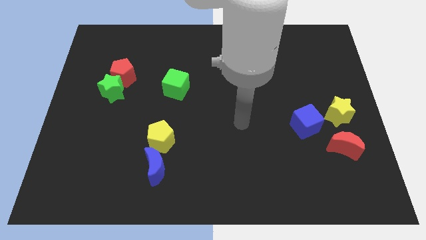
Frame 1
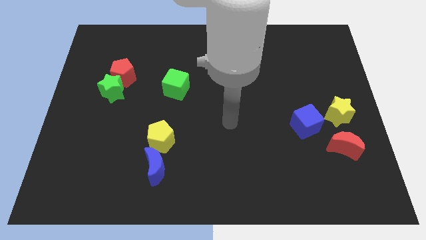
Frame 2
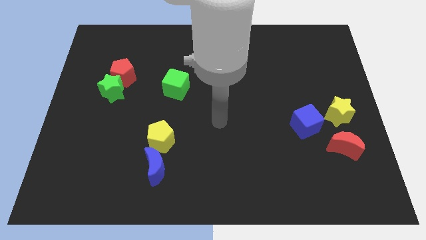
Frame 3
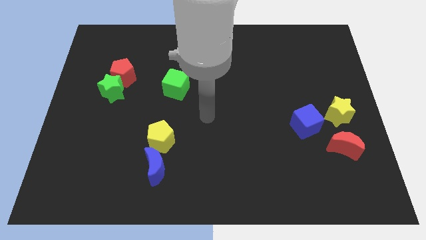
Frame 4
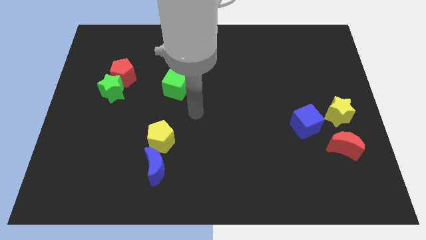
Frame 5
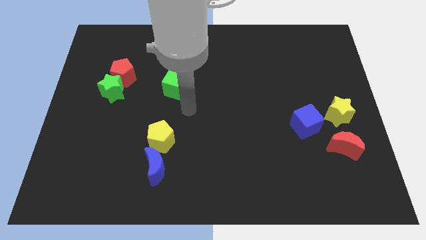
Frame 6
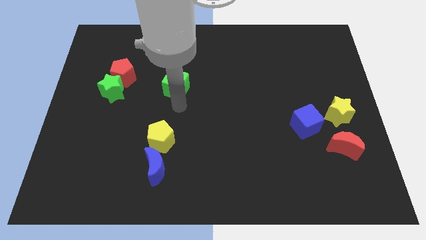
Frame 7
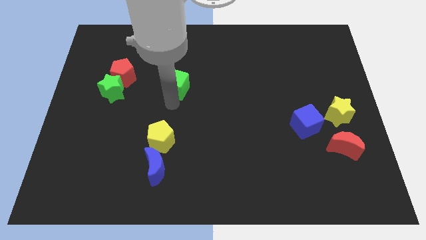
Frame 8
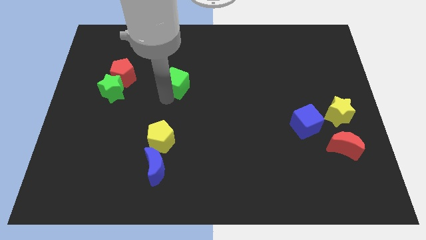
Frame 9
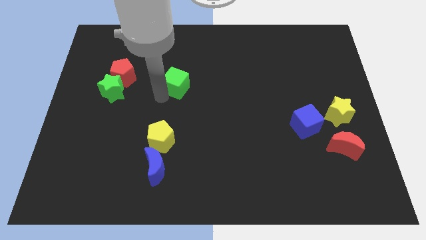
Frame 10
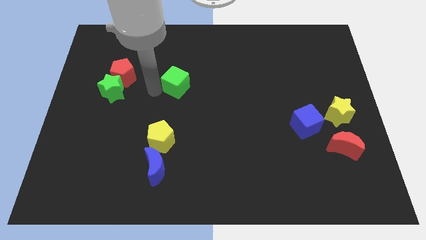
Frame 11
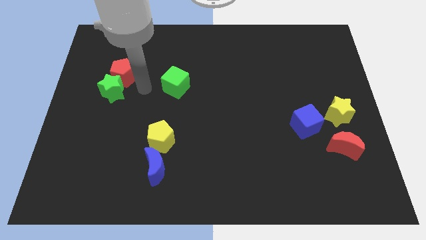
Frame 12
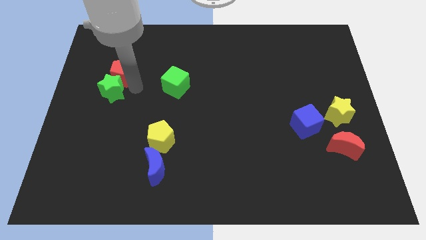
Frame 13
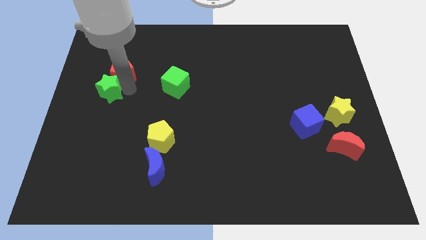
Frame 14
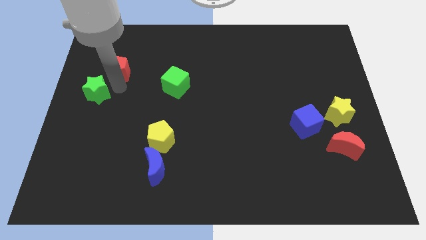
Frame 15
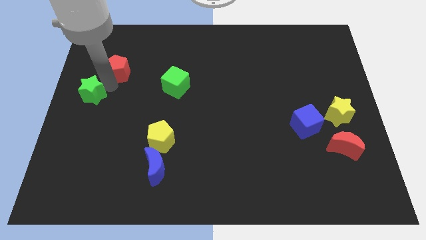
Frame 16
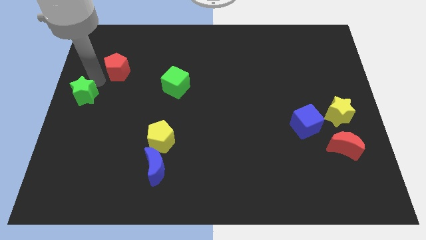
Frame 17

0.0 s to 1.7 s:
separate the red pentagon from the green star

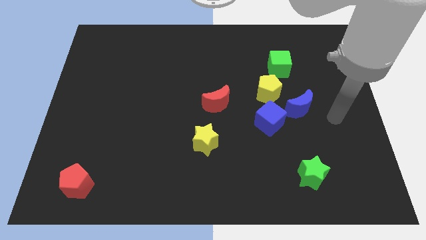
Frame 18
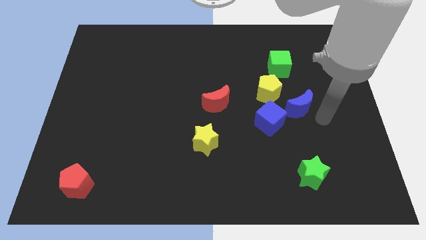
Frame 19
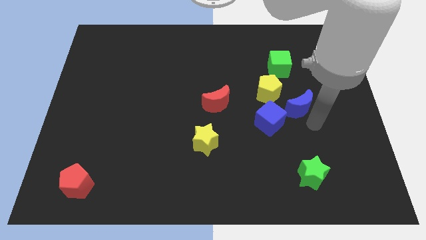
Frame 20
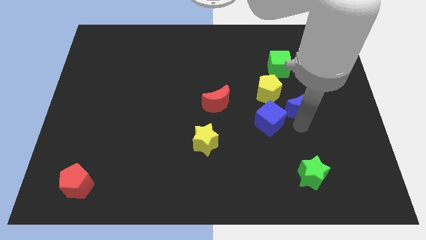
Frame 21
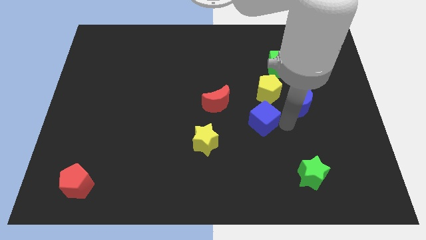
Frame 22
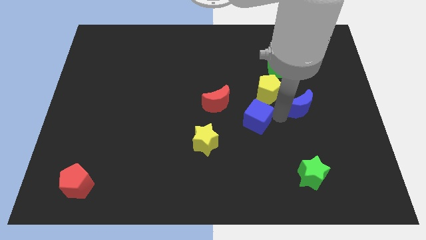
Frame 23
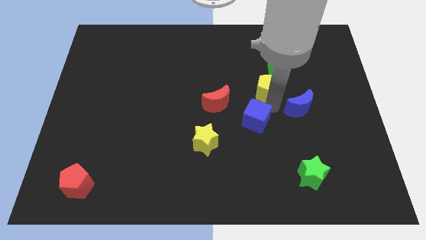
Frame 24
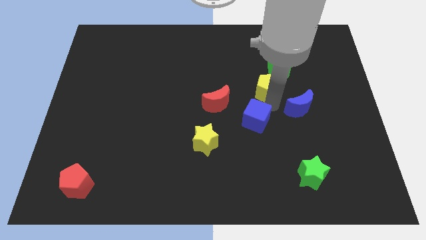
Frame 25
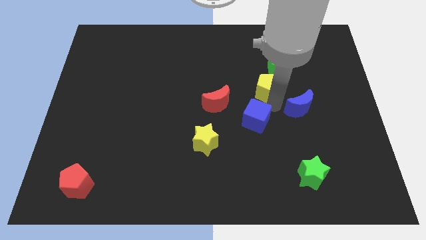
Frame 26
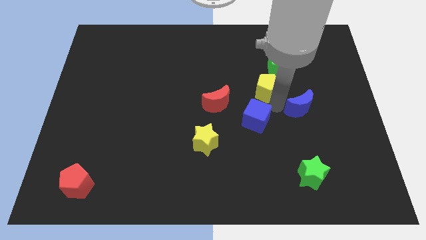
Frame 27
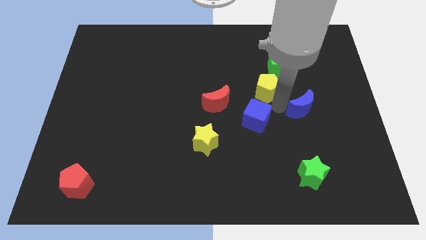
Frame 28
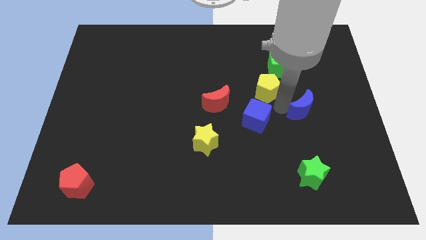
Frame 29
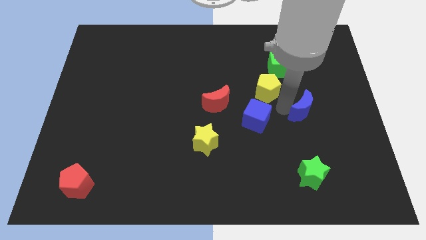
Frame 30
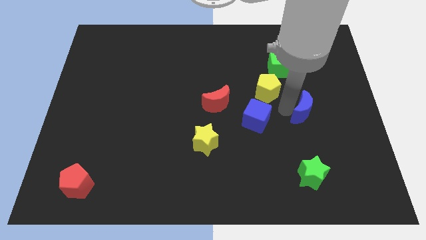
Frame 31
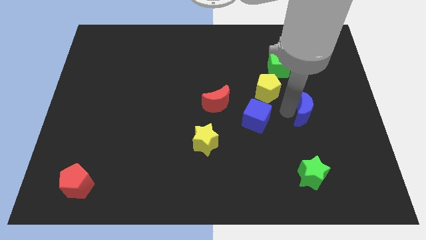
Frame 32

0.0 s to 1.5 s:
move the blue moon away from the blue cube and yellow pentagon

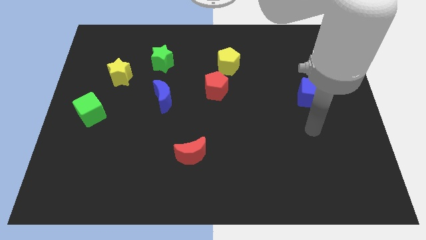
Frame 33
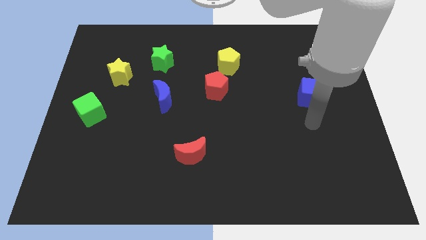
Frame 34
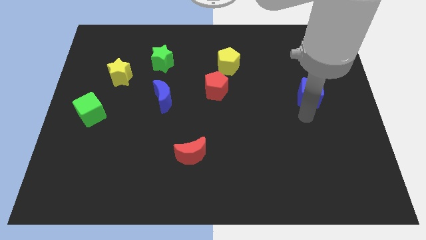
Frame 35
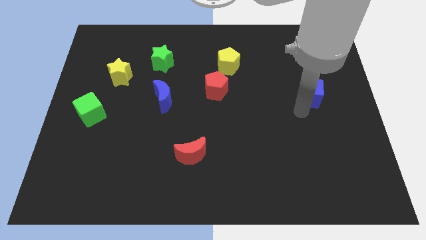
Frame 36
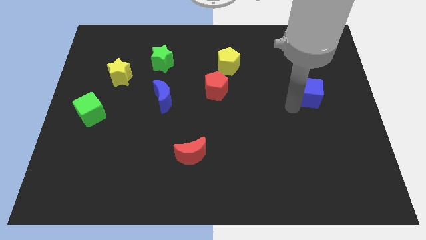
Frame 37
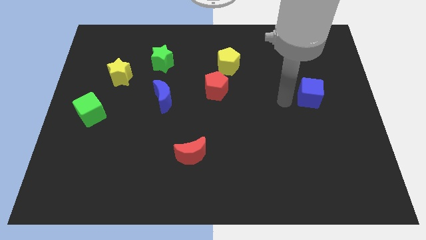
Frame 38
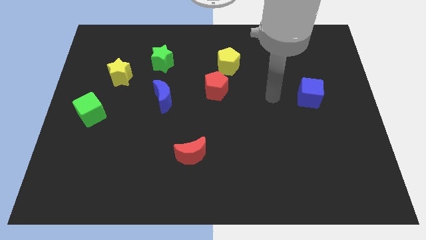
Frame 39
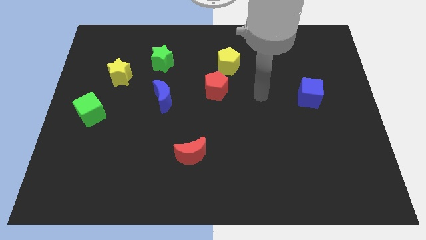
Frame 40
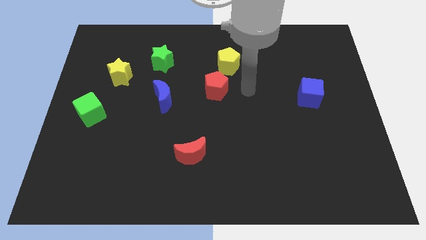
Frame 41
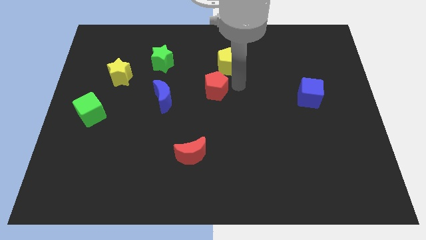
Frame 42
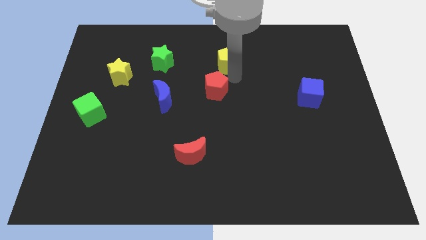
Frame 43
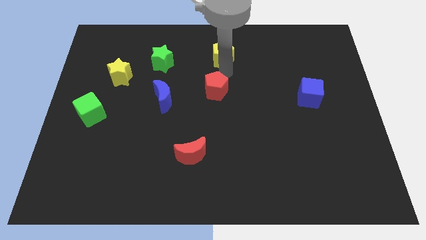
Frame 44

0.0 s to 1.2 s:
pull the red pentagon apart from the yellow pentagon

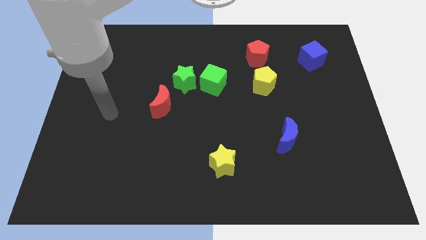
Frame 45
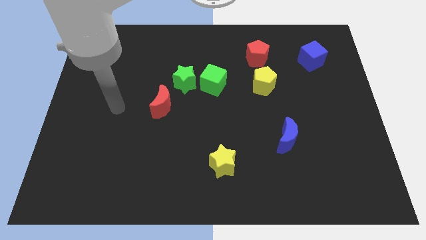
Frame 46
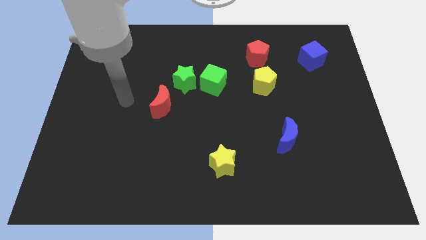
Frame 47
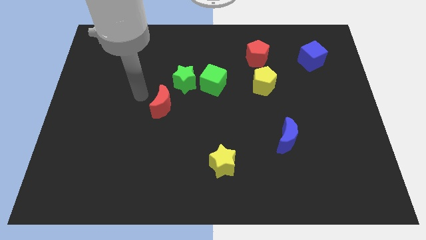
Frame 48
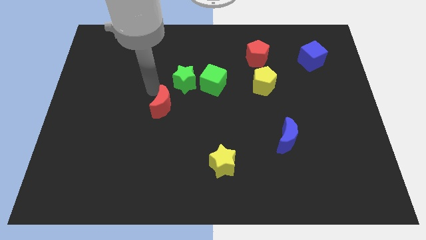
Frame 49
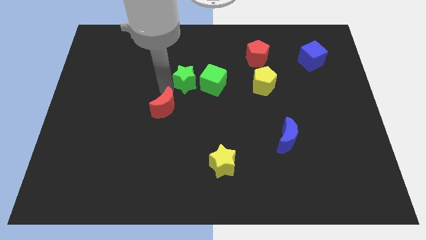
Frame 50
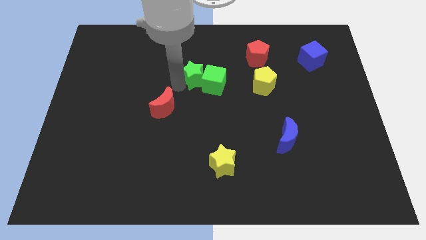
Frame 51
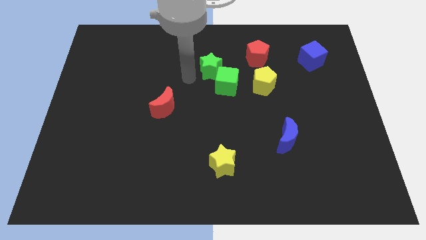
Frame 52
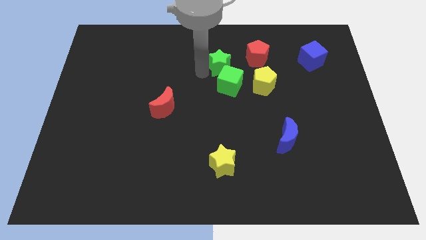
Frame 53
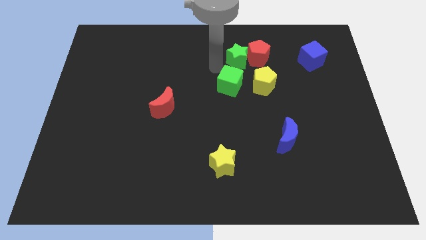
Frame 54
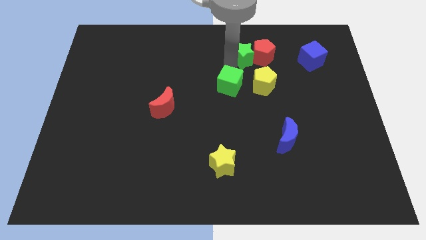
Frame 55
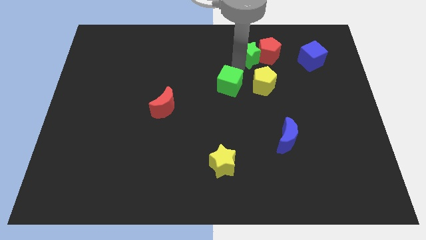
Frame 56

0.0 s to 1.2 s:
separate the green cube from the green star

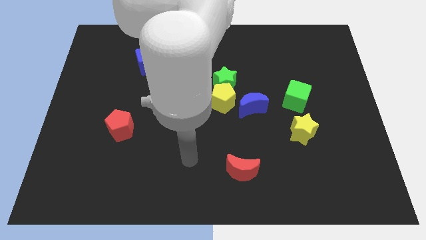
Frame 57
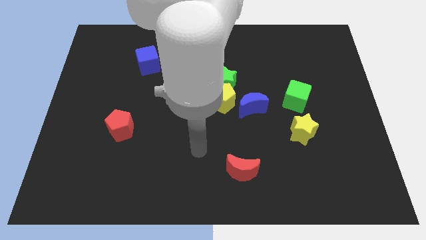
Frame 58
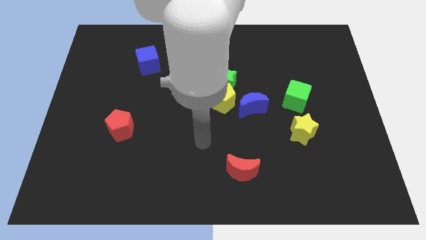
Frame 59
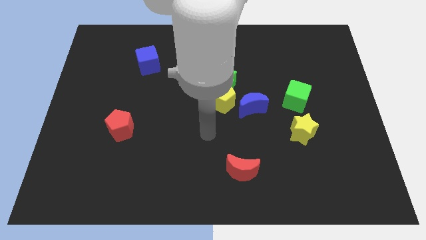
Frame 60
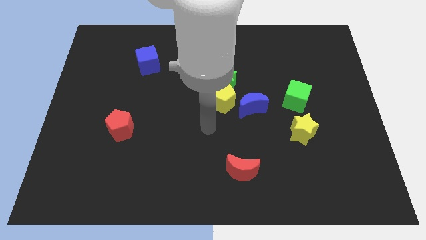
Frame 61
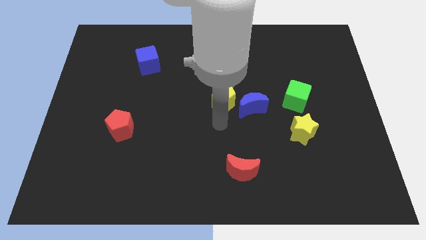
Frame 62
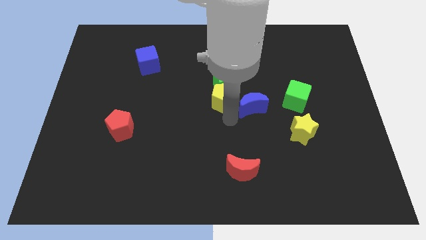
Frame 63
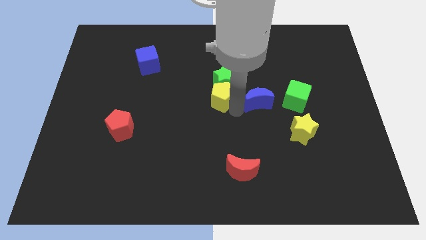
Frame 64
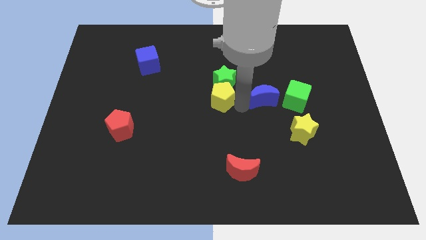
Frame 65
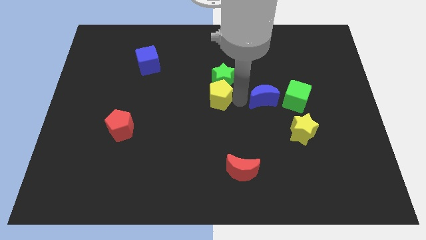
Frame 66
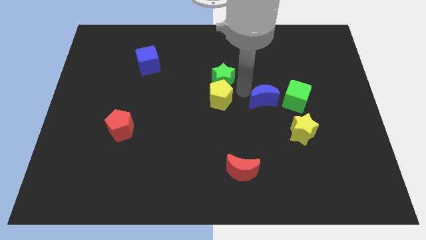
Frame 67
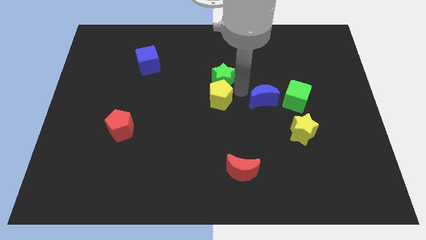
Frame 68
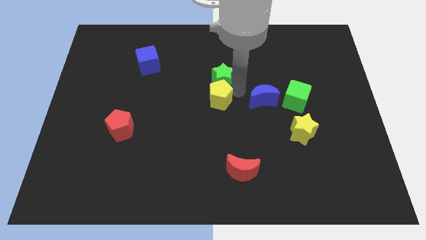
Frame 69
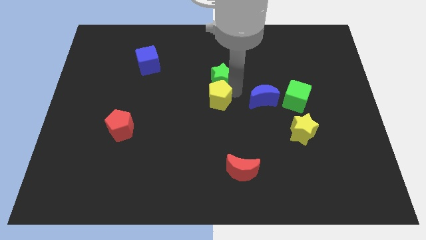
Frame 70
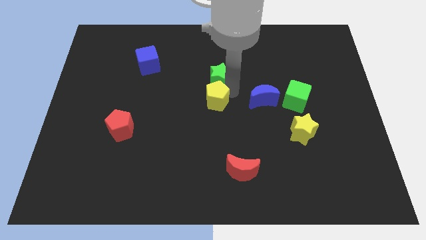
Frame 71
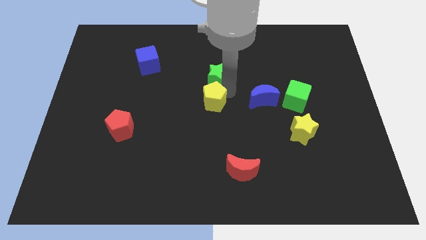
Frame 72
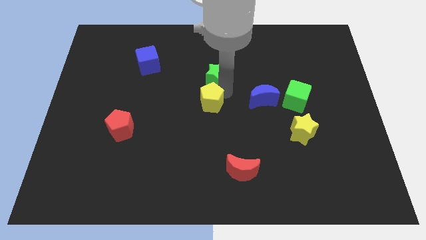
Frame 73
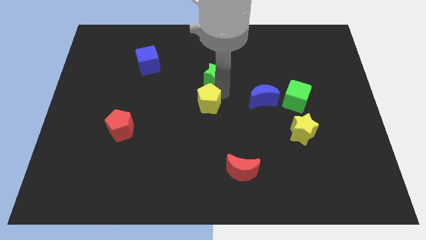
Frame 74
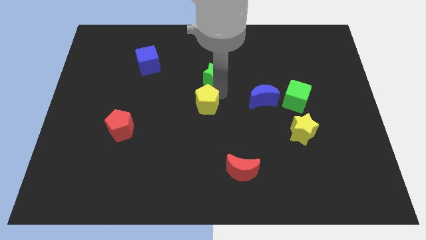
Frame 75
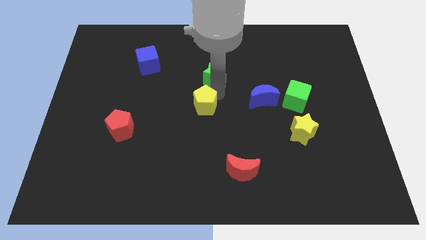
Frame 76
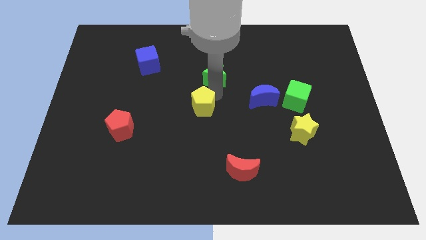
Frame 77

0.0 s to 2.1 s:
pull the yellow pentagon apart from the green star and blue moon

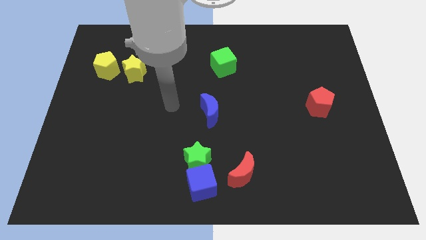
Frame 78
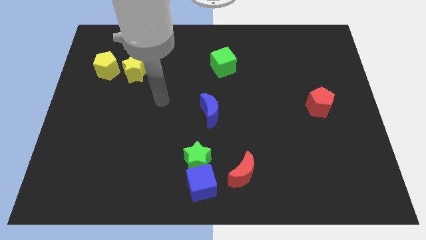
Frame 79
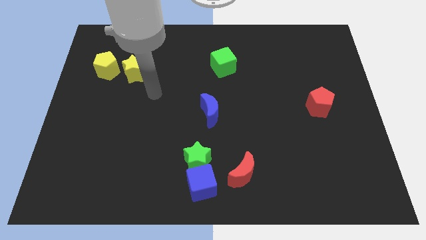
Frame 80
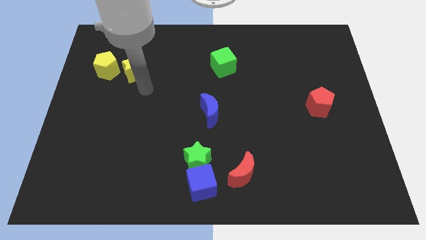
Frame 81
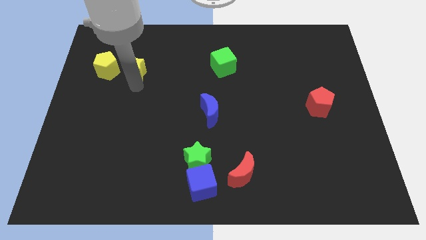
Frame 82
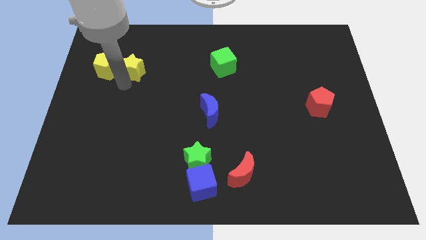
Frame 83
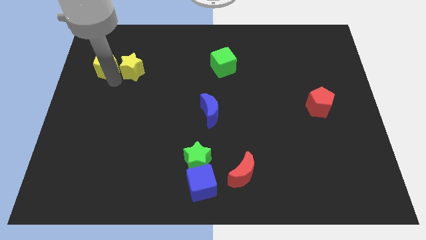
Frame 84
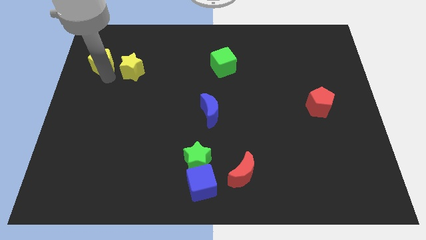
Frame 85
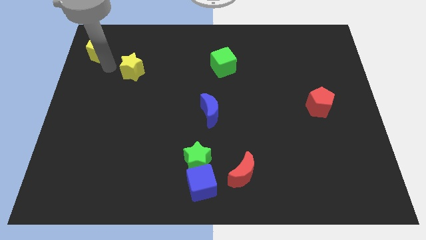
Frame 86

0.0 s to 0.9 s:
pull the yellow star apart from the yellow pentagon

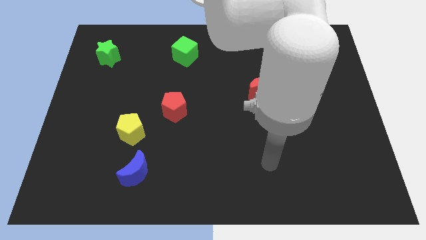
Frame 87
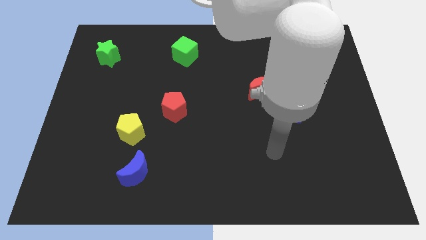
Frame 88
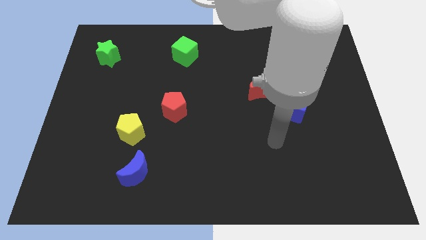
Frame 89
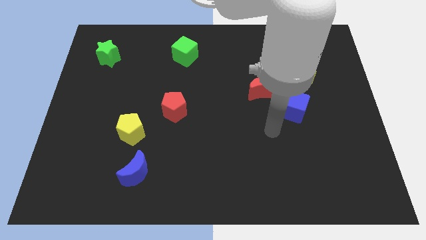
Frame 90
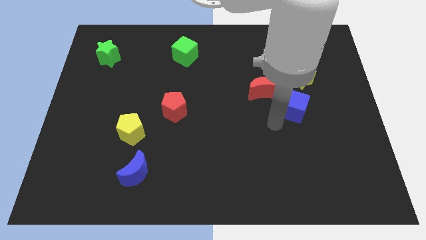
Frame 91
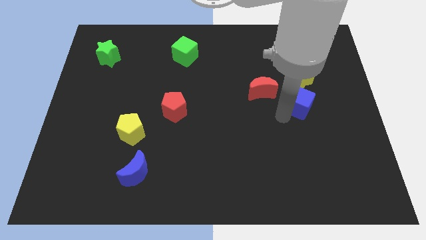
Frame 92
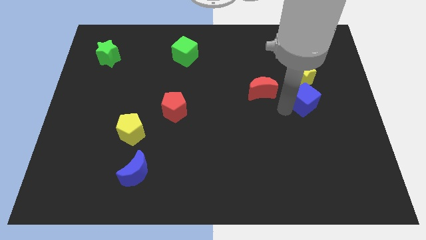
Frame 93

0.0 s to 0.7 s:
move the red moon away from the blue cube
